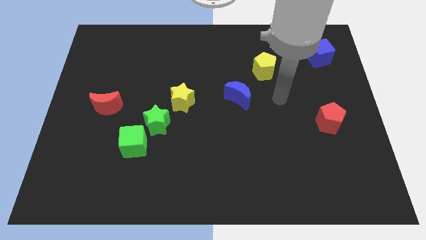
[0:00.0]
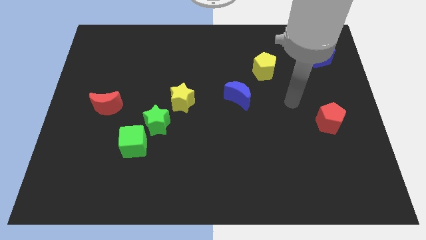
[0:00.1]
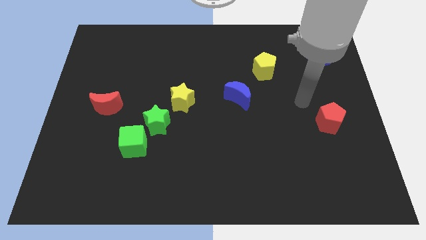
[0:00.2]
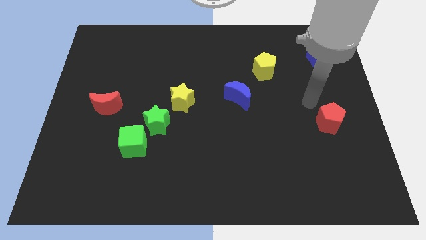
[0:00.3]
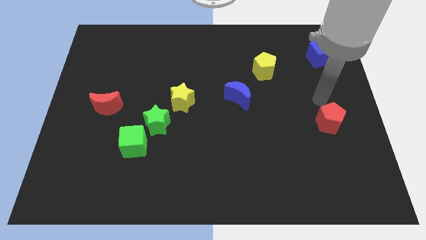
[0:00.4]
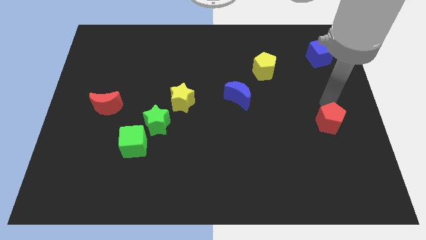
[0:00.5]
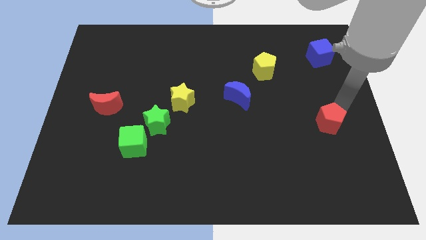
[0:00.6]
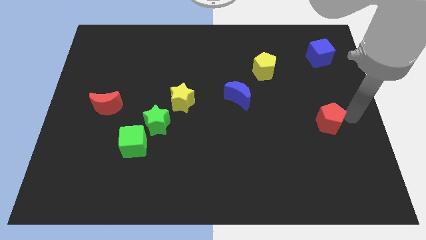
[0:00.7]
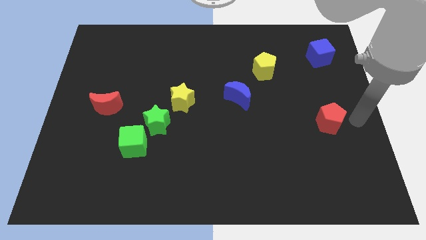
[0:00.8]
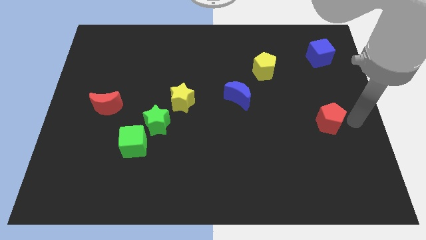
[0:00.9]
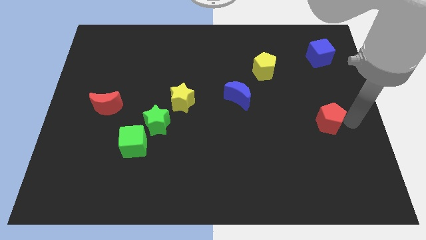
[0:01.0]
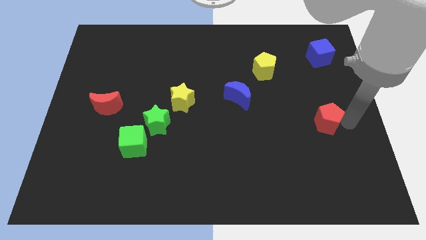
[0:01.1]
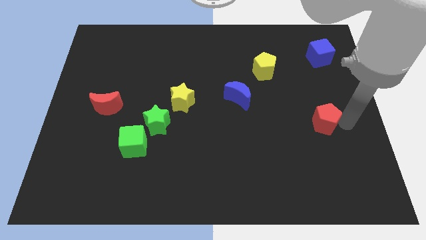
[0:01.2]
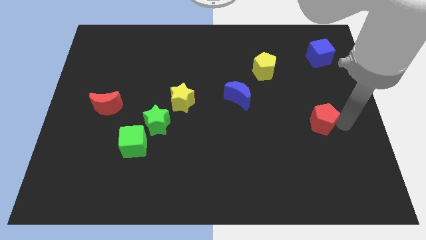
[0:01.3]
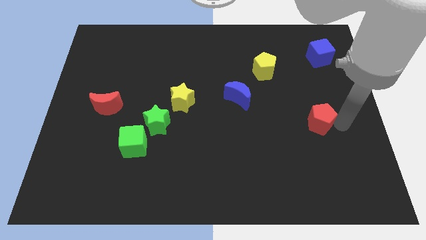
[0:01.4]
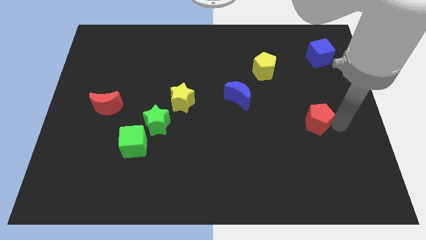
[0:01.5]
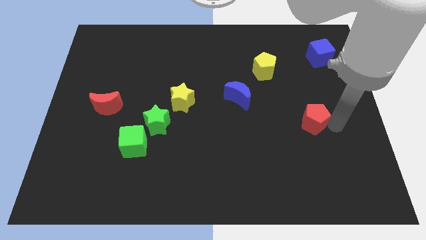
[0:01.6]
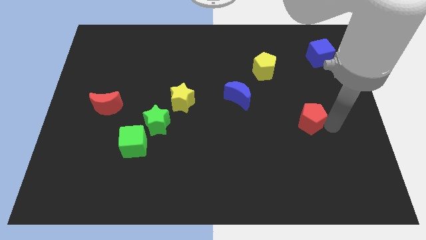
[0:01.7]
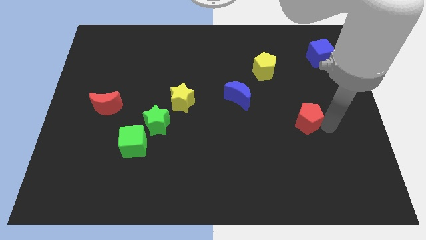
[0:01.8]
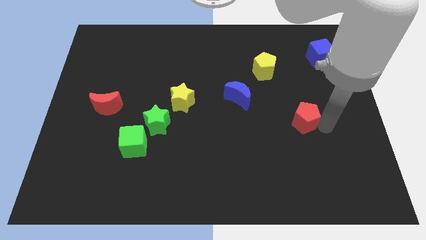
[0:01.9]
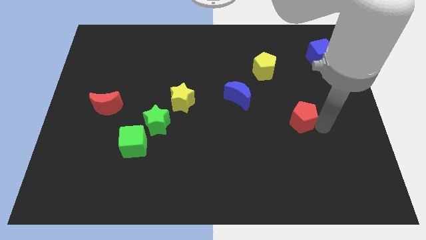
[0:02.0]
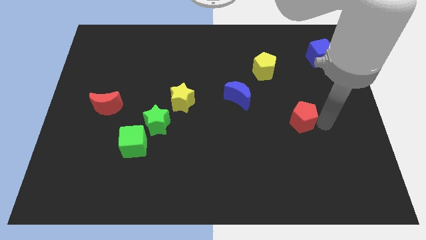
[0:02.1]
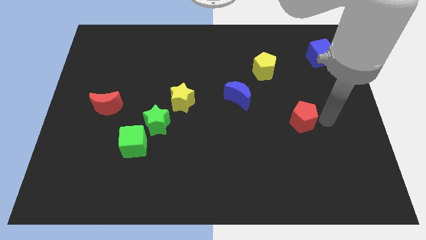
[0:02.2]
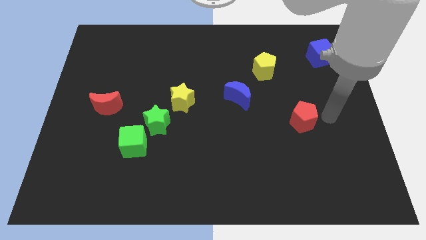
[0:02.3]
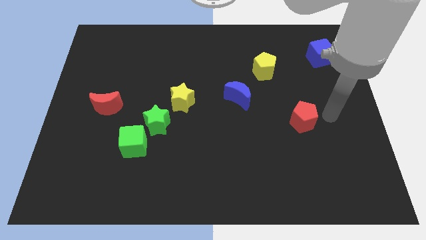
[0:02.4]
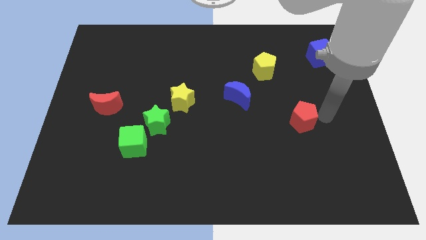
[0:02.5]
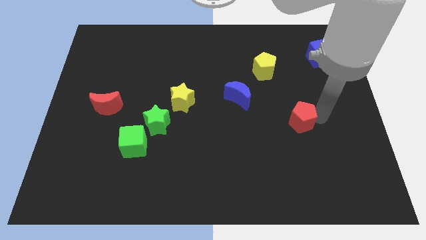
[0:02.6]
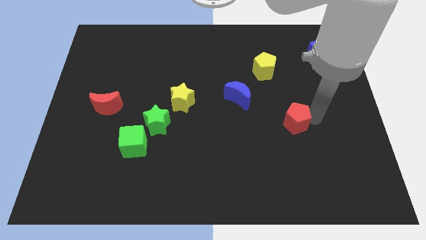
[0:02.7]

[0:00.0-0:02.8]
slide the red pentagon a little left

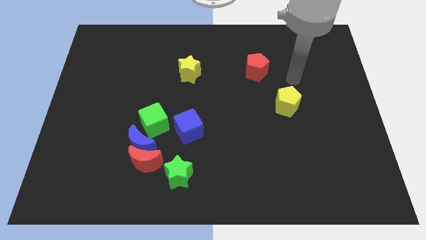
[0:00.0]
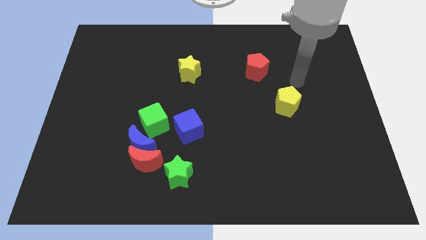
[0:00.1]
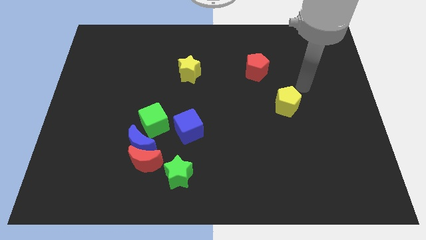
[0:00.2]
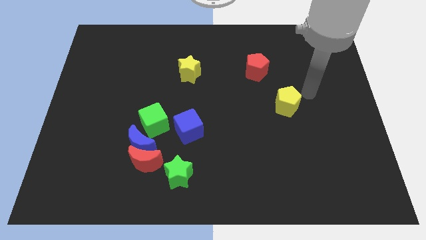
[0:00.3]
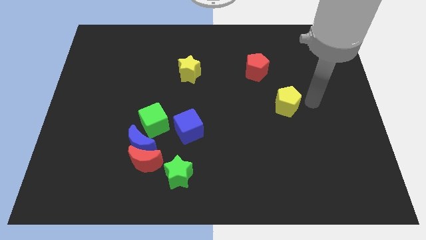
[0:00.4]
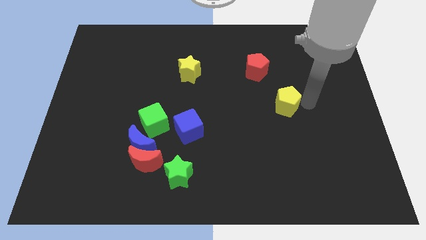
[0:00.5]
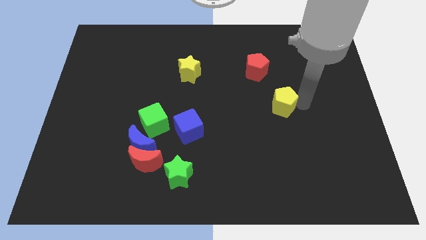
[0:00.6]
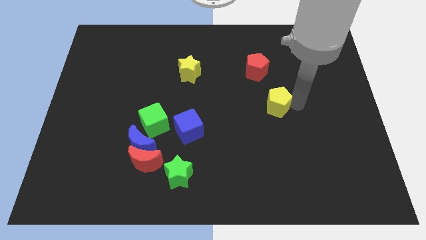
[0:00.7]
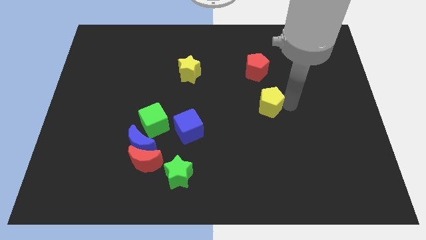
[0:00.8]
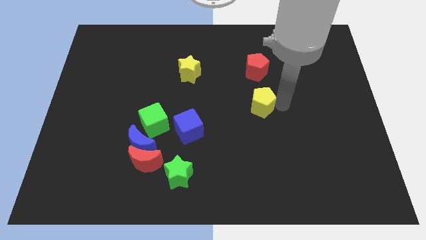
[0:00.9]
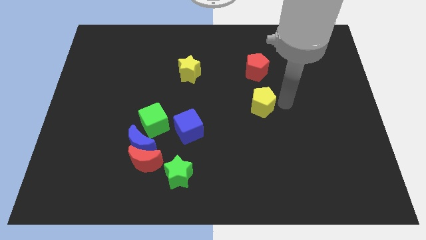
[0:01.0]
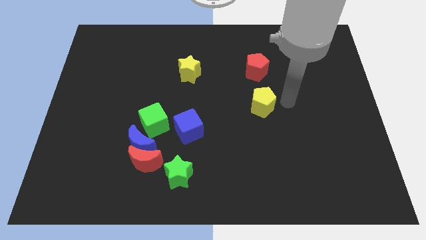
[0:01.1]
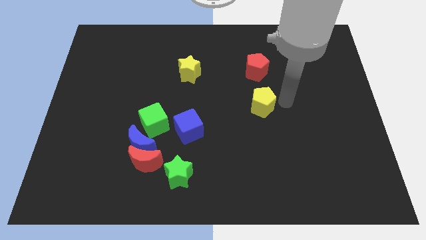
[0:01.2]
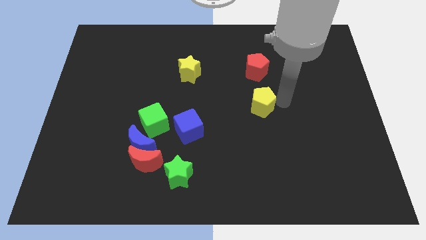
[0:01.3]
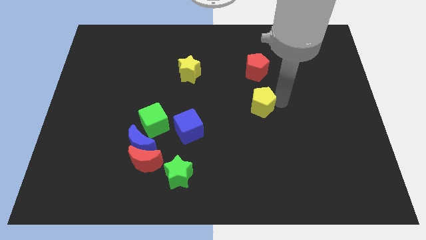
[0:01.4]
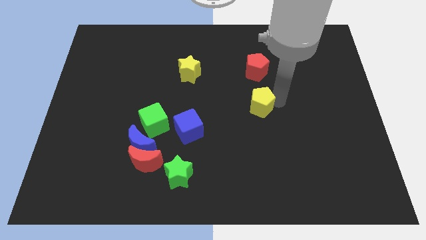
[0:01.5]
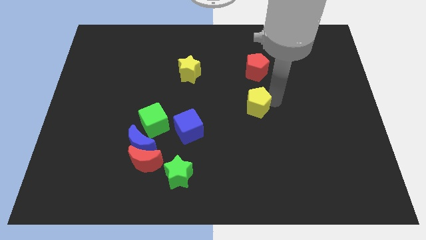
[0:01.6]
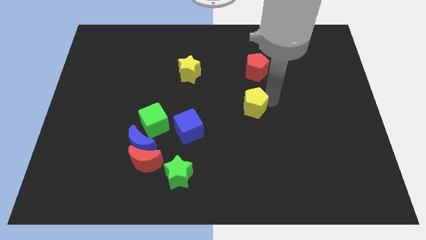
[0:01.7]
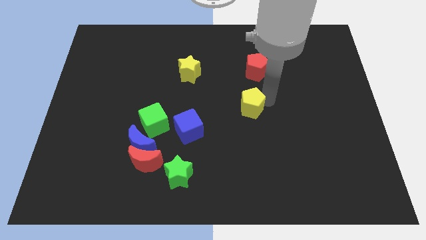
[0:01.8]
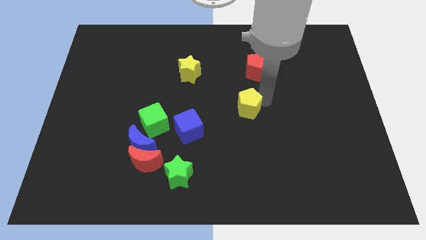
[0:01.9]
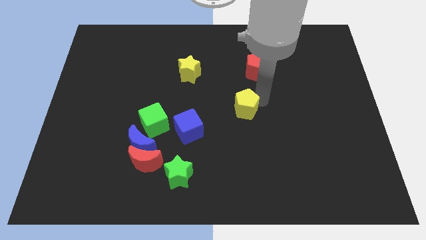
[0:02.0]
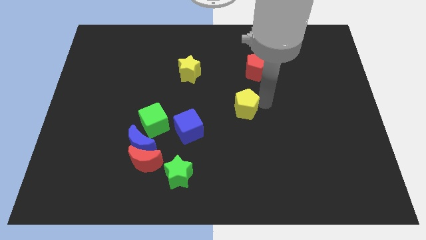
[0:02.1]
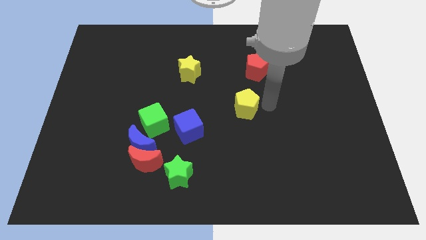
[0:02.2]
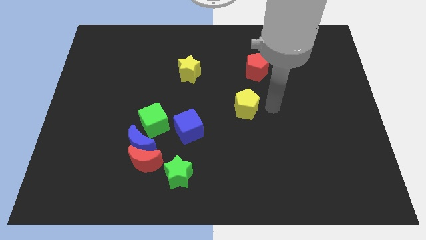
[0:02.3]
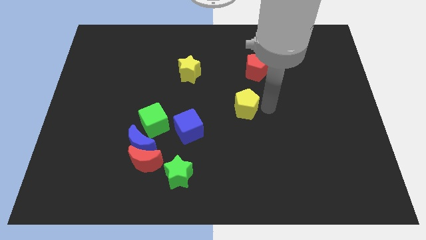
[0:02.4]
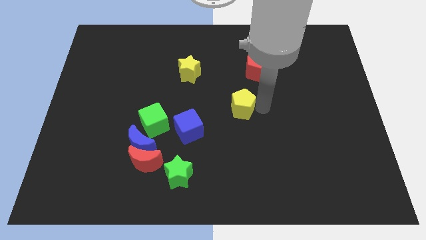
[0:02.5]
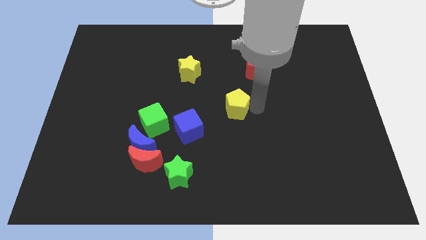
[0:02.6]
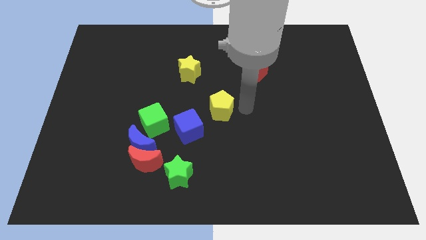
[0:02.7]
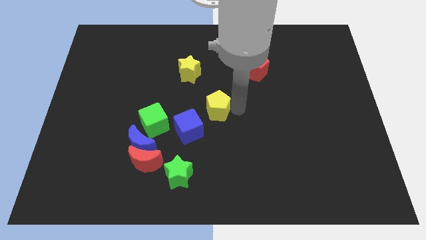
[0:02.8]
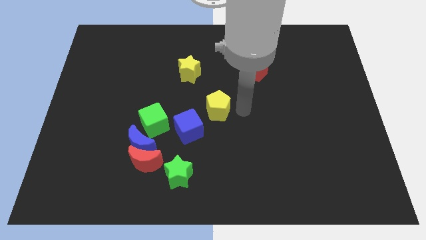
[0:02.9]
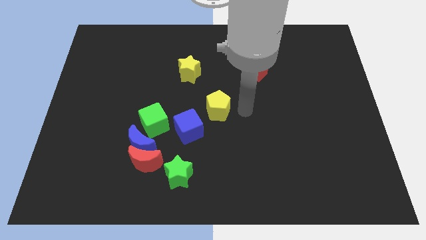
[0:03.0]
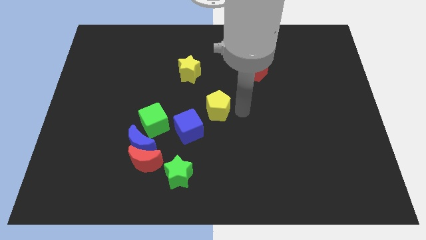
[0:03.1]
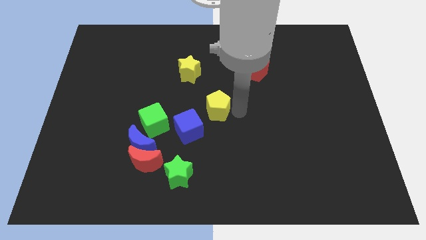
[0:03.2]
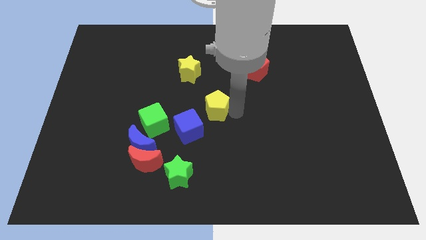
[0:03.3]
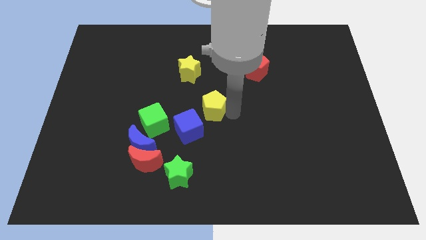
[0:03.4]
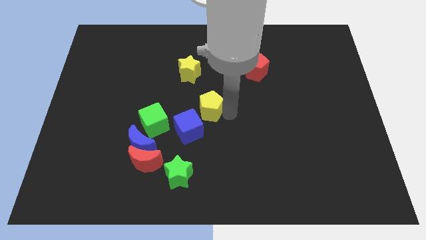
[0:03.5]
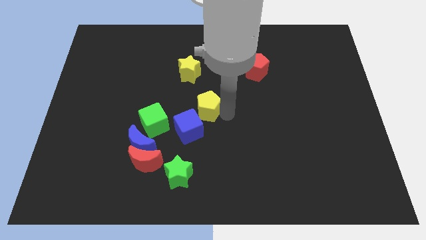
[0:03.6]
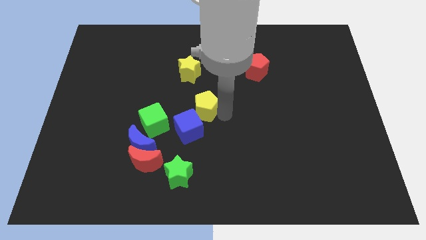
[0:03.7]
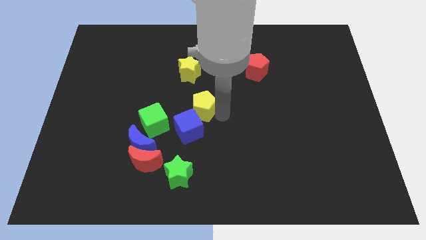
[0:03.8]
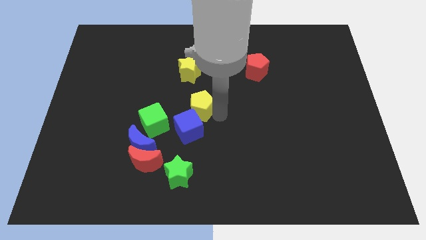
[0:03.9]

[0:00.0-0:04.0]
move the yellow pentagon to the left

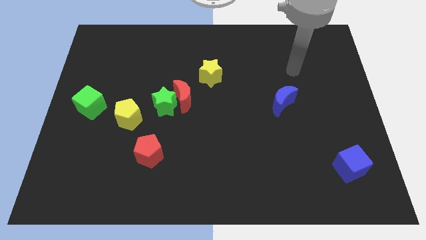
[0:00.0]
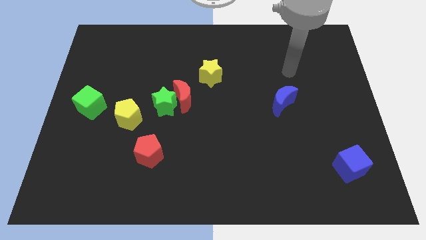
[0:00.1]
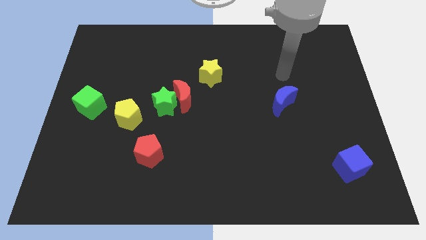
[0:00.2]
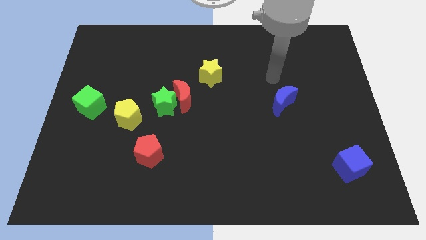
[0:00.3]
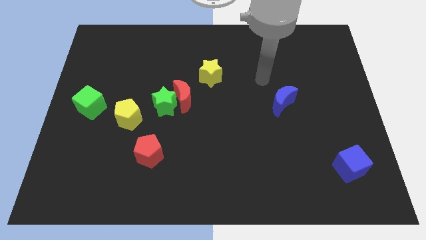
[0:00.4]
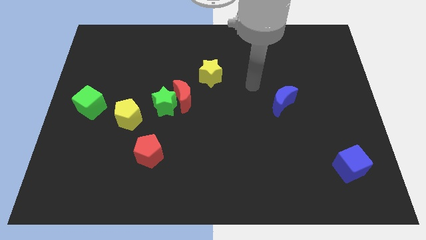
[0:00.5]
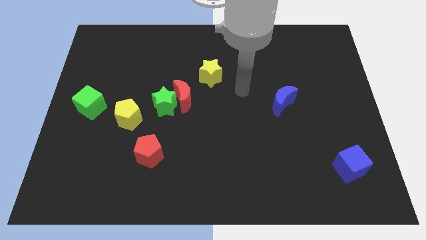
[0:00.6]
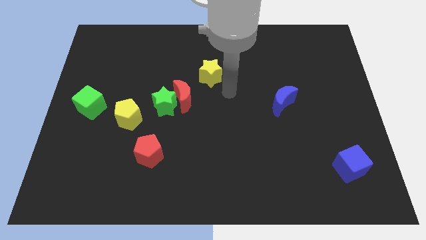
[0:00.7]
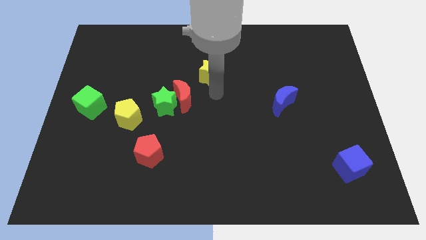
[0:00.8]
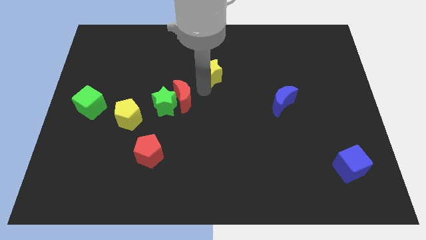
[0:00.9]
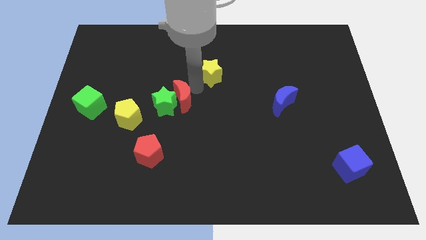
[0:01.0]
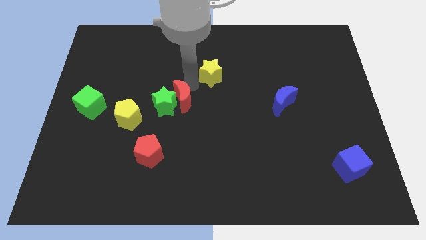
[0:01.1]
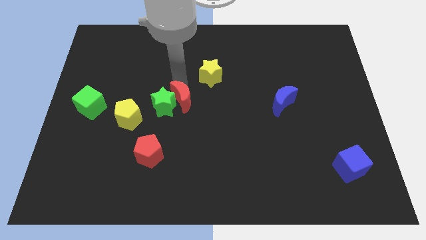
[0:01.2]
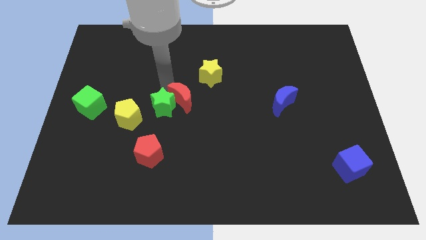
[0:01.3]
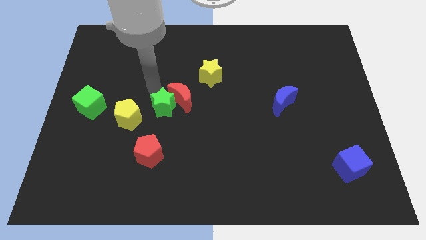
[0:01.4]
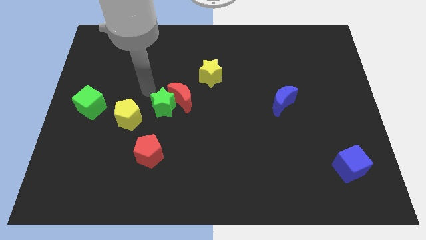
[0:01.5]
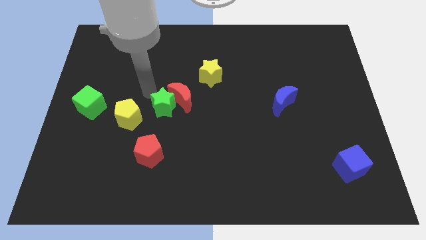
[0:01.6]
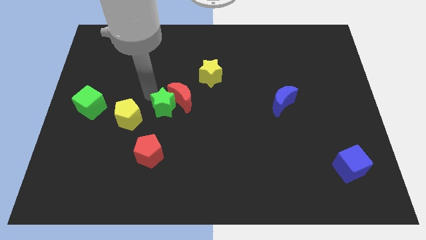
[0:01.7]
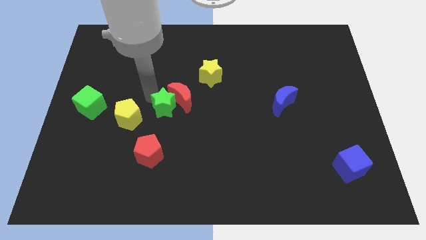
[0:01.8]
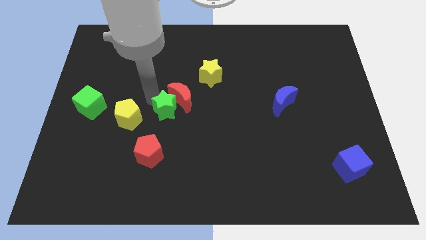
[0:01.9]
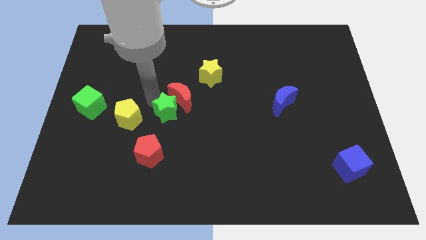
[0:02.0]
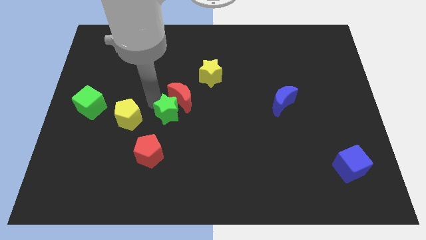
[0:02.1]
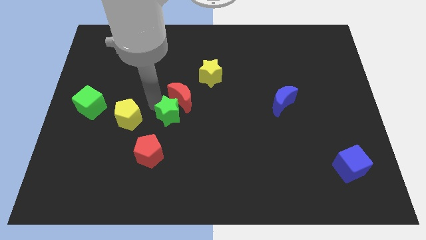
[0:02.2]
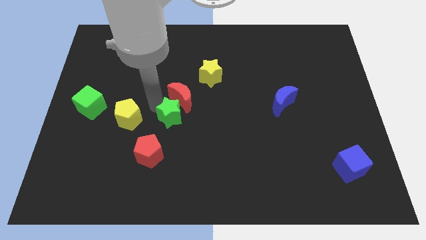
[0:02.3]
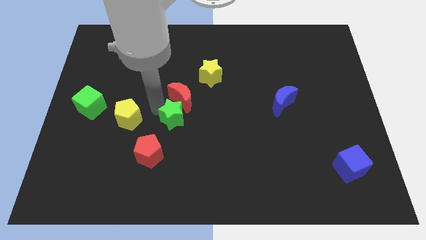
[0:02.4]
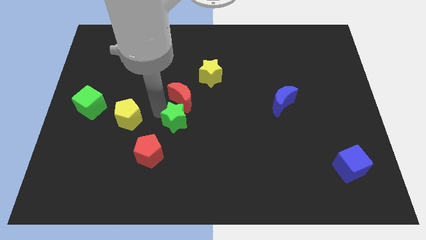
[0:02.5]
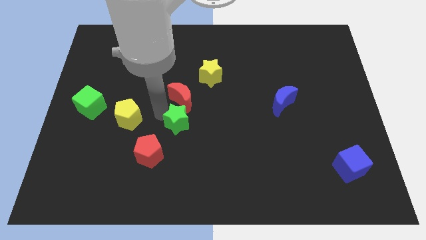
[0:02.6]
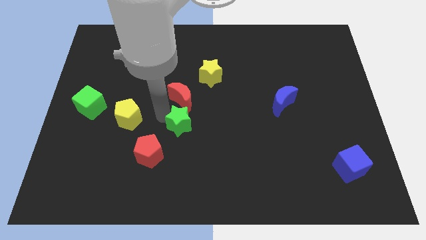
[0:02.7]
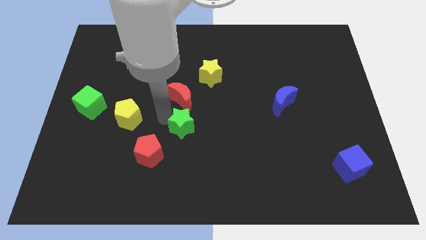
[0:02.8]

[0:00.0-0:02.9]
slightly move the green star diagonally downwards and right
